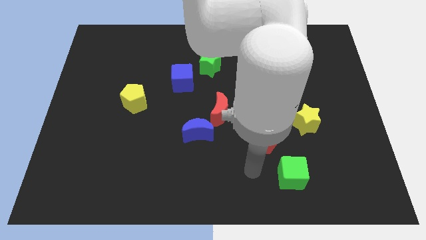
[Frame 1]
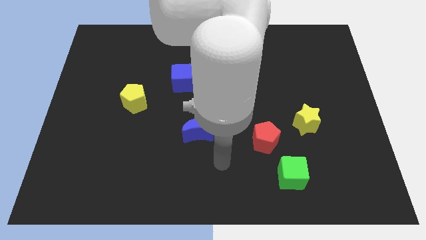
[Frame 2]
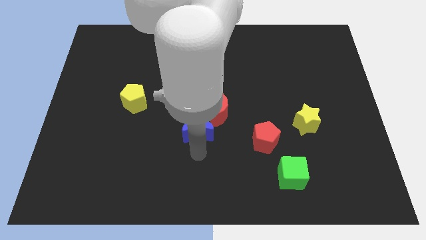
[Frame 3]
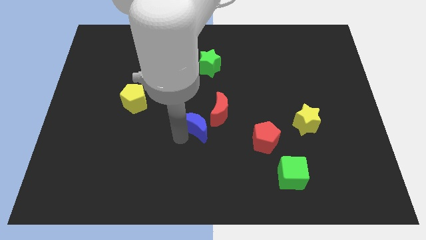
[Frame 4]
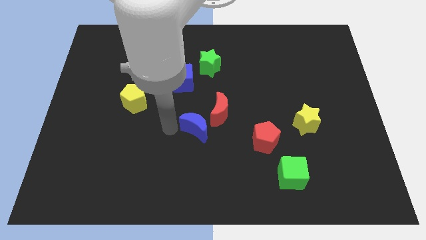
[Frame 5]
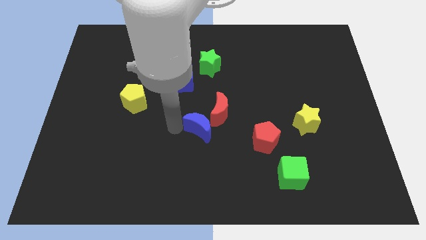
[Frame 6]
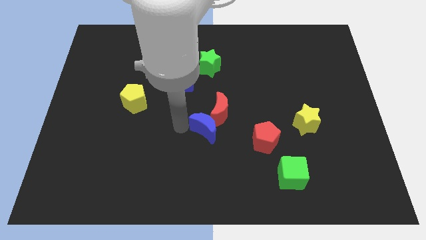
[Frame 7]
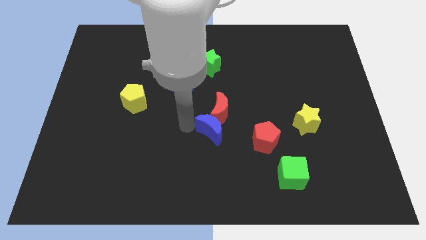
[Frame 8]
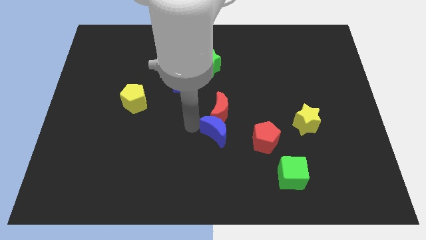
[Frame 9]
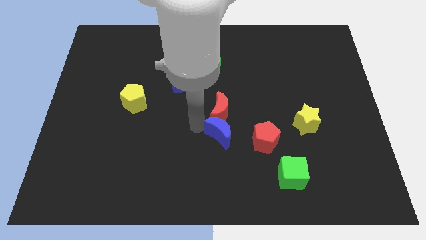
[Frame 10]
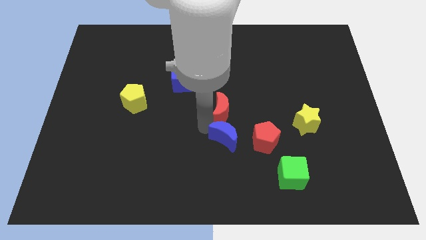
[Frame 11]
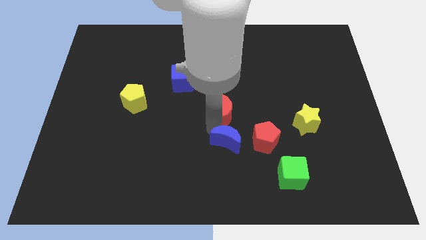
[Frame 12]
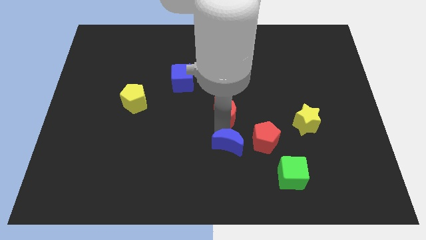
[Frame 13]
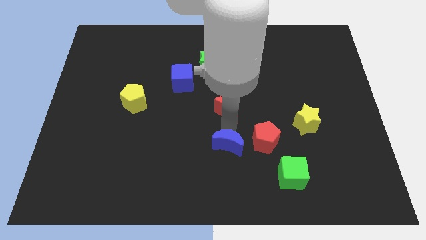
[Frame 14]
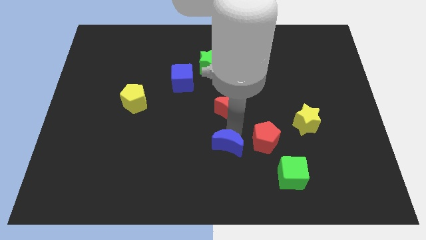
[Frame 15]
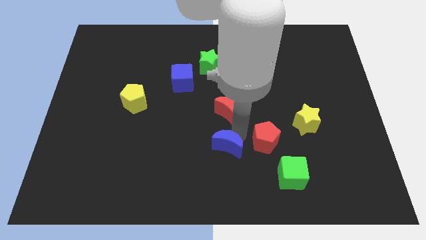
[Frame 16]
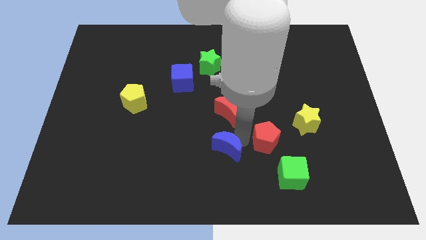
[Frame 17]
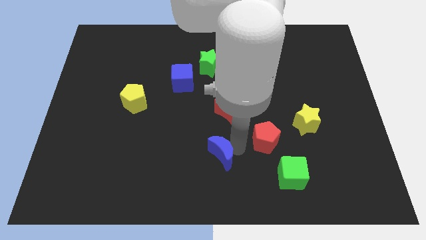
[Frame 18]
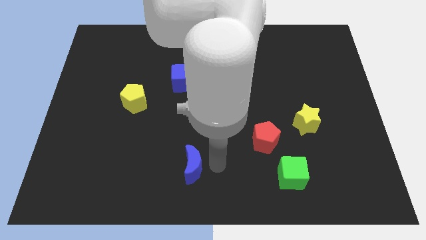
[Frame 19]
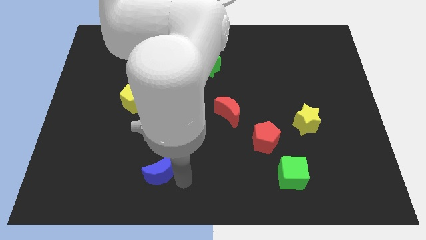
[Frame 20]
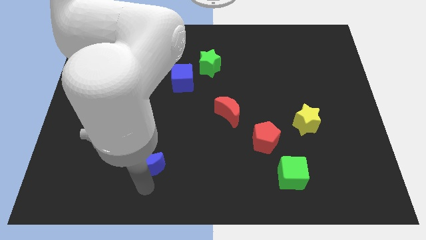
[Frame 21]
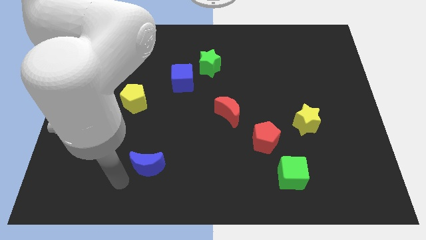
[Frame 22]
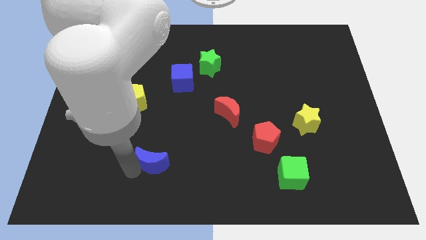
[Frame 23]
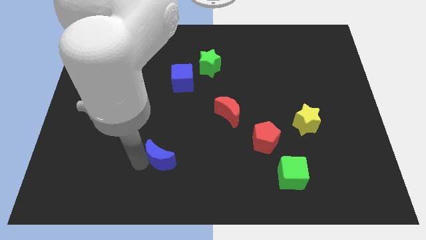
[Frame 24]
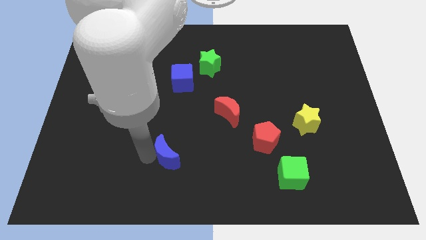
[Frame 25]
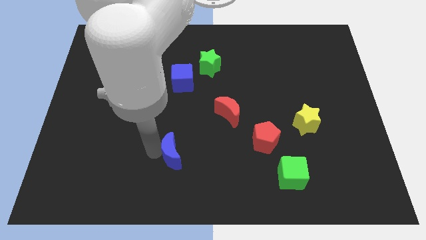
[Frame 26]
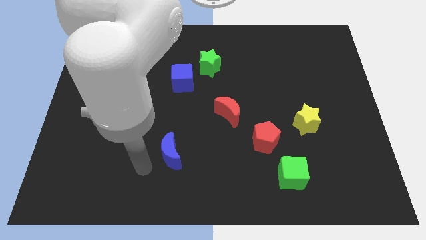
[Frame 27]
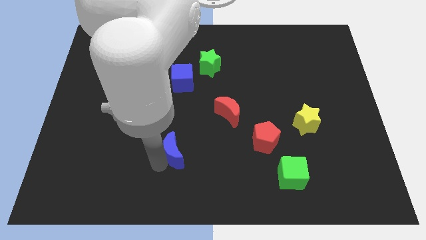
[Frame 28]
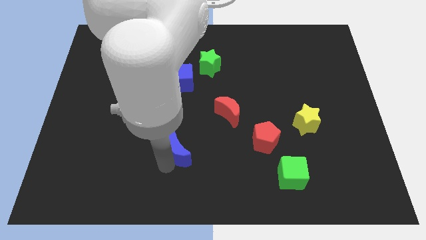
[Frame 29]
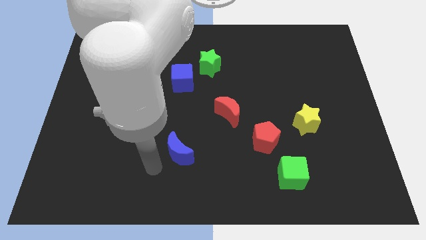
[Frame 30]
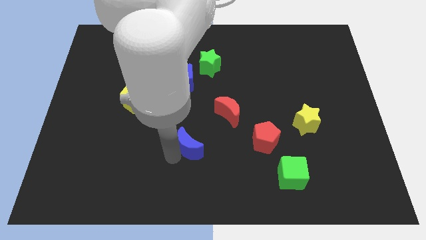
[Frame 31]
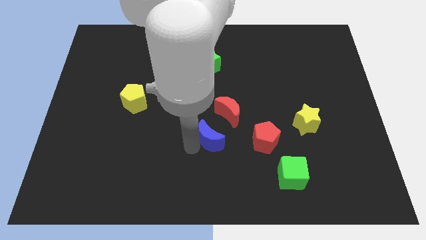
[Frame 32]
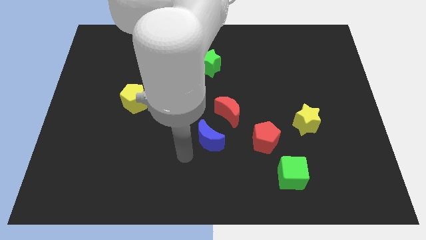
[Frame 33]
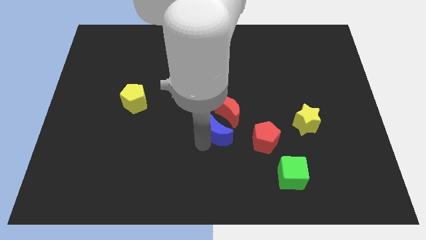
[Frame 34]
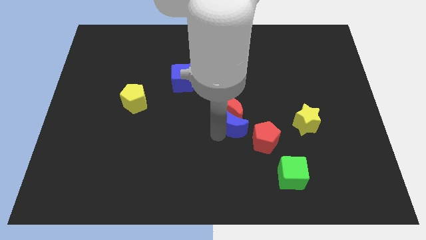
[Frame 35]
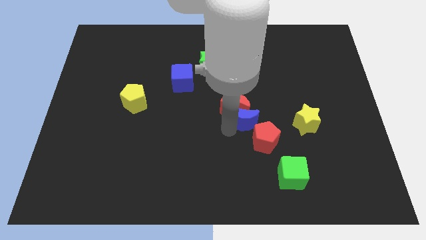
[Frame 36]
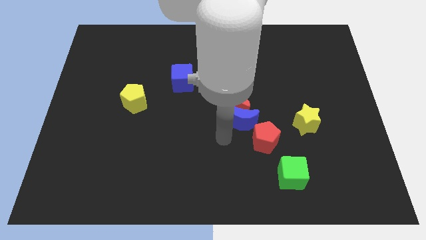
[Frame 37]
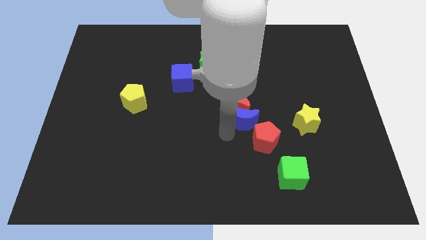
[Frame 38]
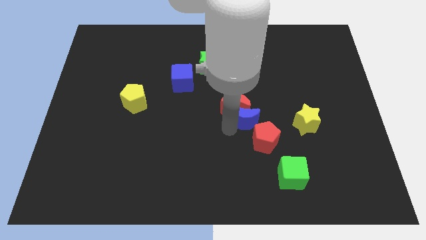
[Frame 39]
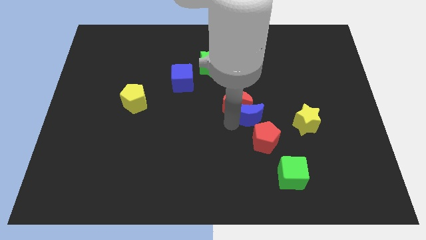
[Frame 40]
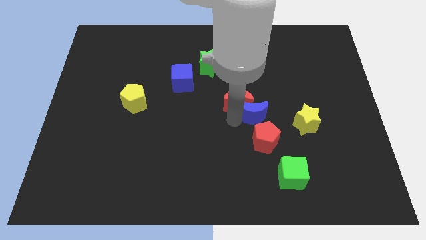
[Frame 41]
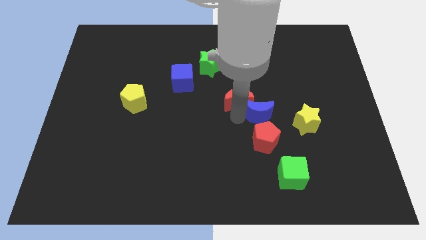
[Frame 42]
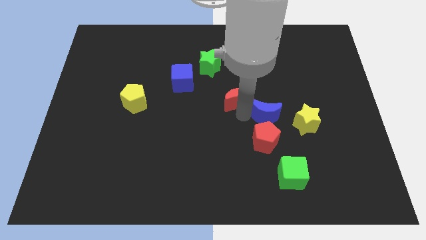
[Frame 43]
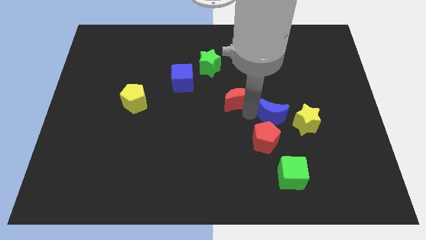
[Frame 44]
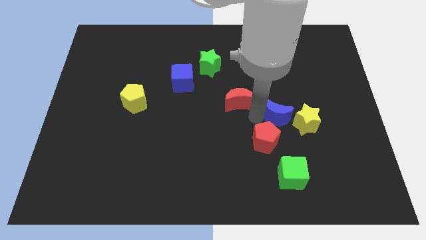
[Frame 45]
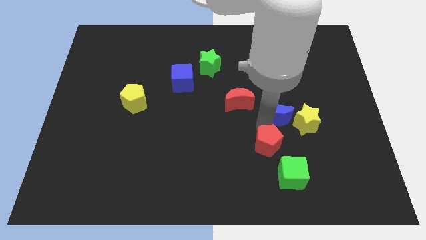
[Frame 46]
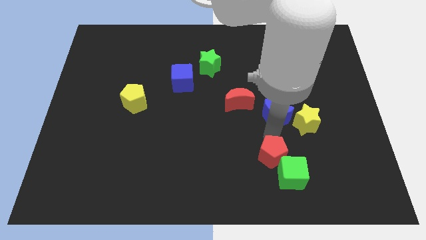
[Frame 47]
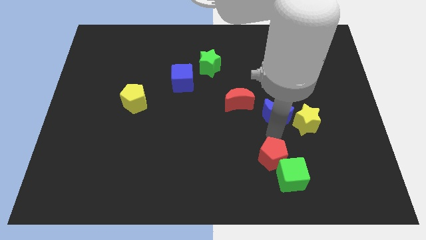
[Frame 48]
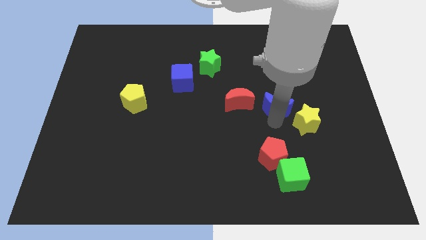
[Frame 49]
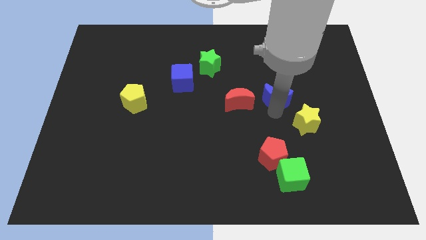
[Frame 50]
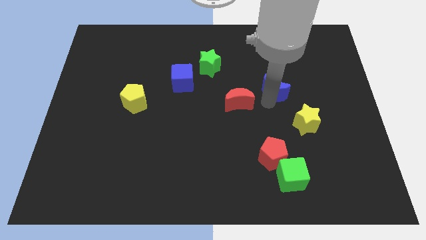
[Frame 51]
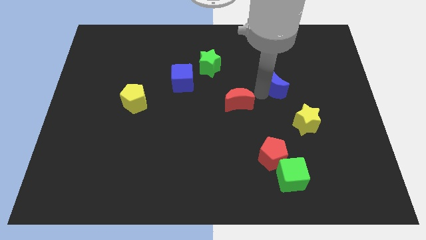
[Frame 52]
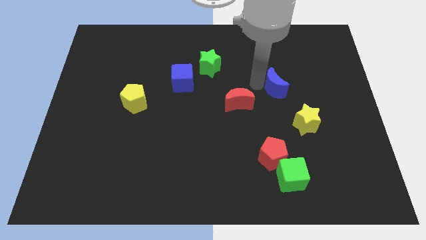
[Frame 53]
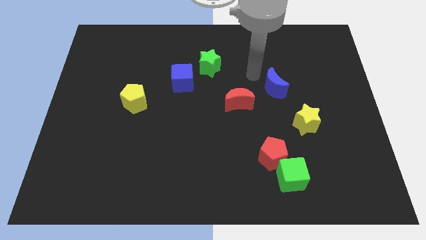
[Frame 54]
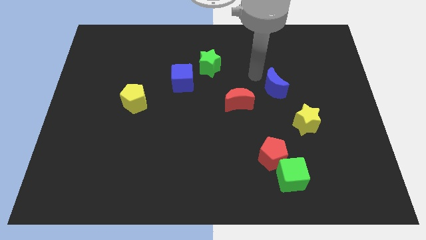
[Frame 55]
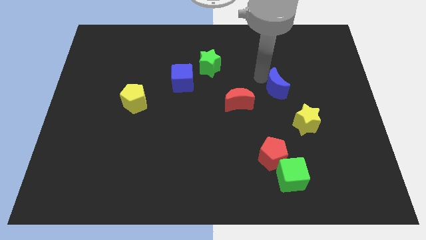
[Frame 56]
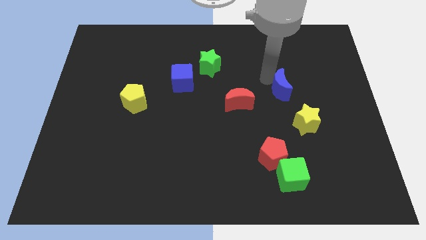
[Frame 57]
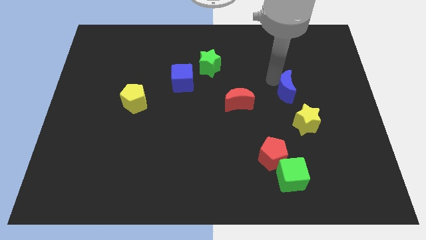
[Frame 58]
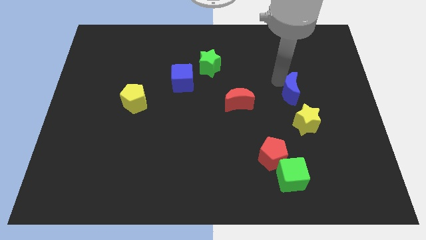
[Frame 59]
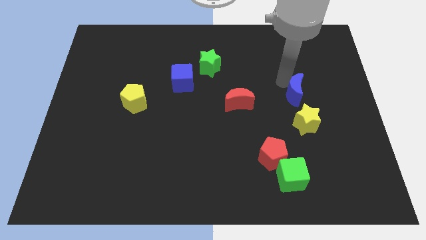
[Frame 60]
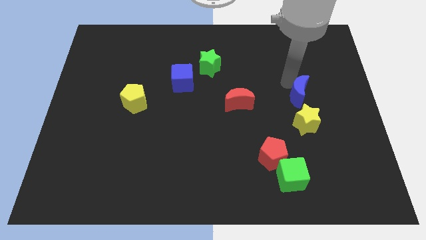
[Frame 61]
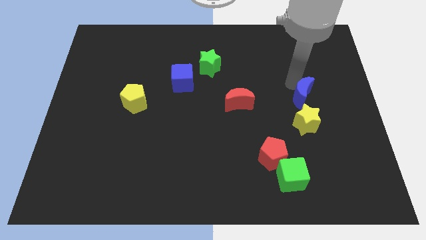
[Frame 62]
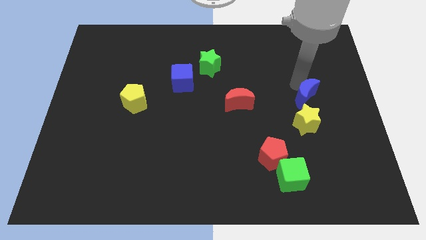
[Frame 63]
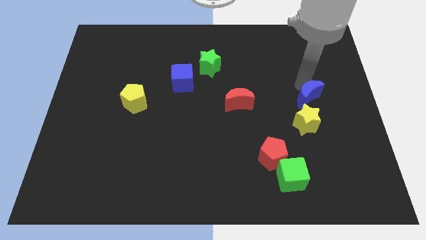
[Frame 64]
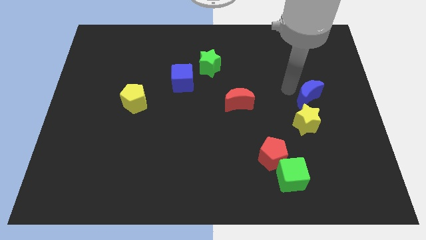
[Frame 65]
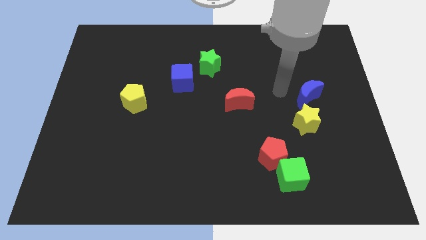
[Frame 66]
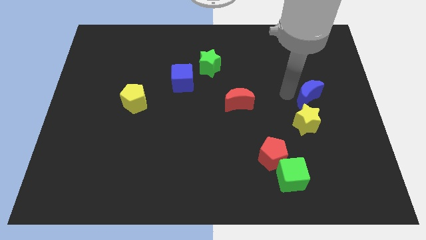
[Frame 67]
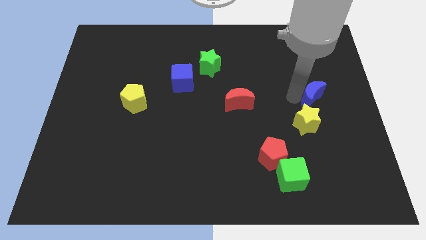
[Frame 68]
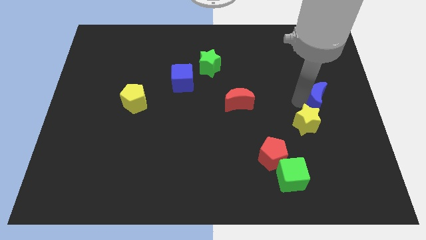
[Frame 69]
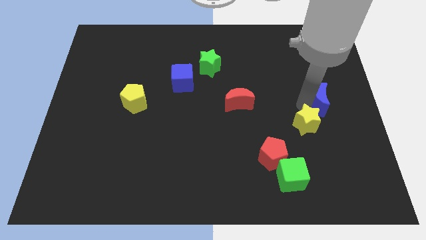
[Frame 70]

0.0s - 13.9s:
slide the blue moon to the center right
